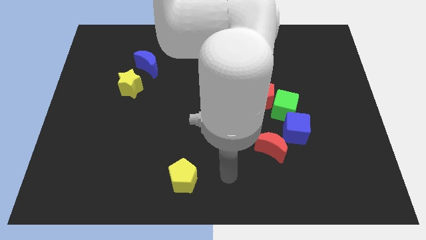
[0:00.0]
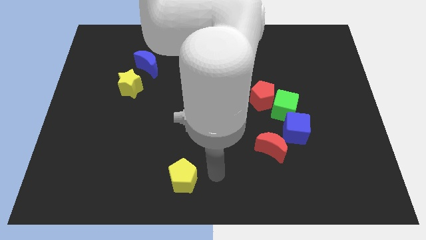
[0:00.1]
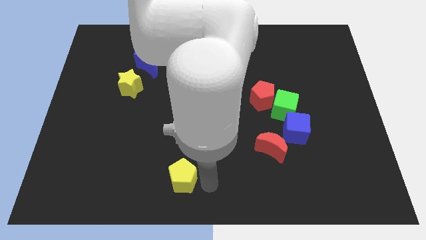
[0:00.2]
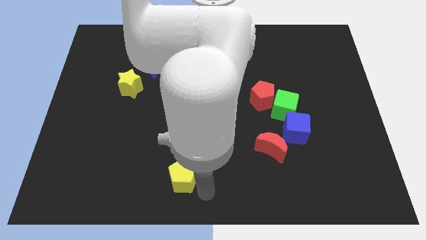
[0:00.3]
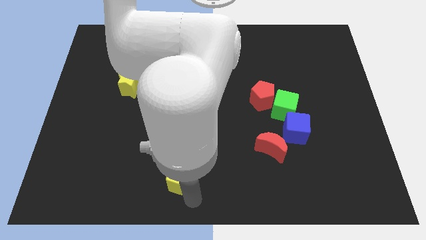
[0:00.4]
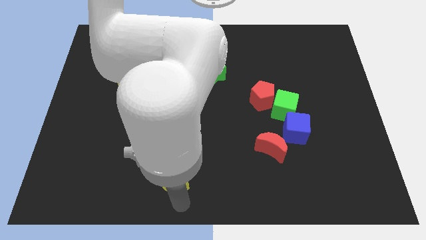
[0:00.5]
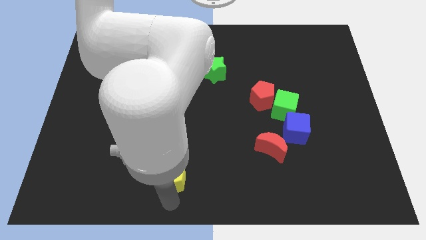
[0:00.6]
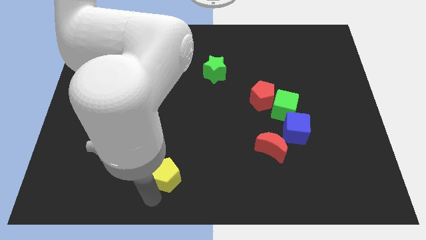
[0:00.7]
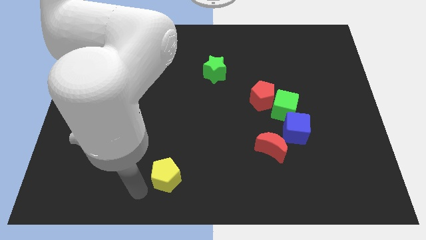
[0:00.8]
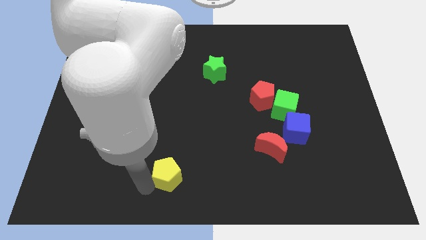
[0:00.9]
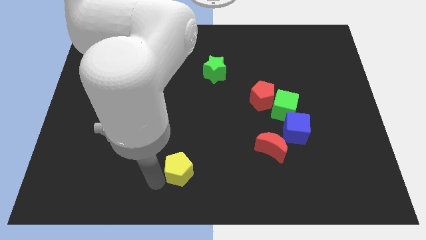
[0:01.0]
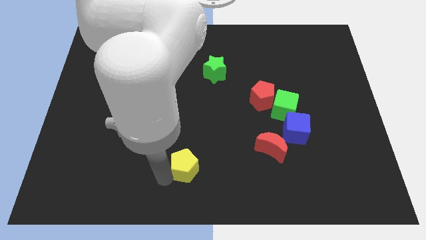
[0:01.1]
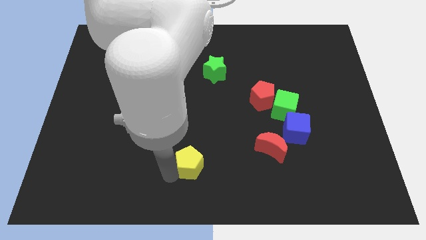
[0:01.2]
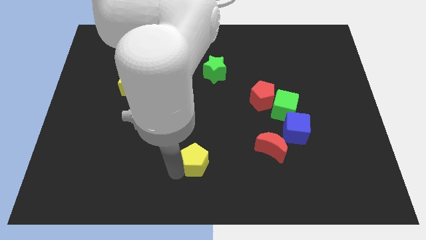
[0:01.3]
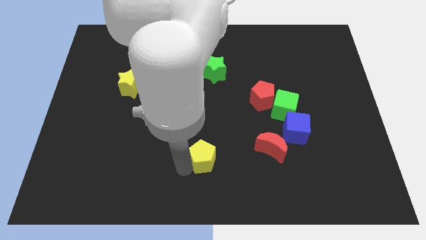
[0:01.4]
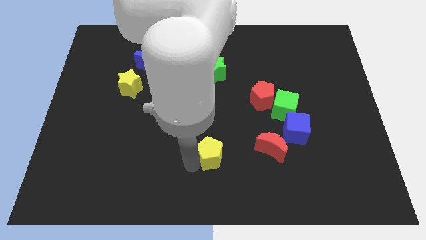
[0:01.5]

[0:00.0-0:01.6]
slightly push the yellow pentagon up and to the right diagonally

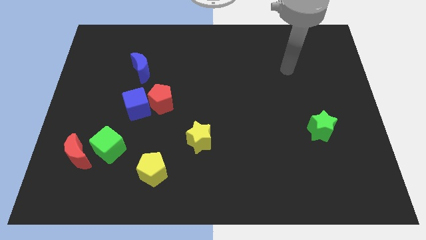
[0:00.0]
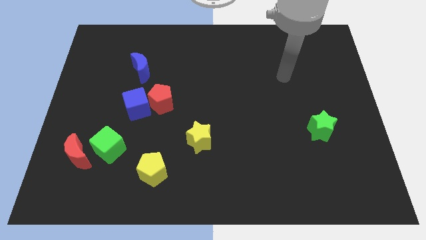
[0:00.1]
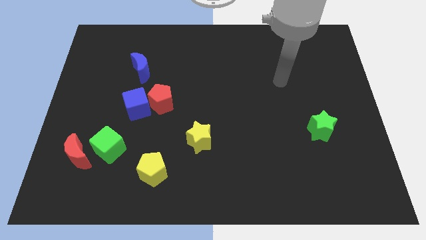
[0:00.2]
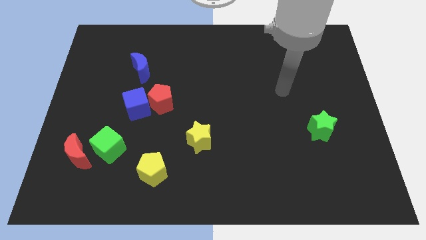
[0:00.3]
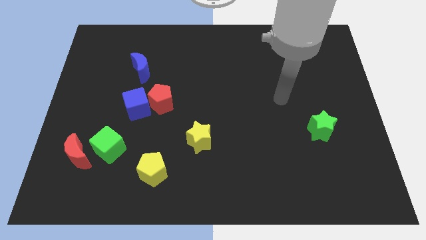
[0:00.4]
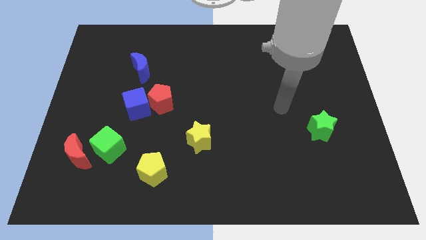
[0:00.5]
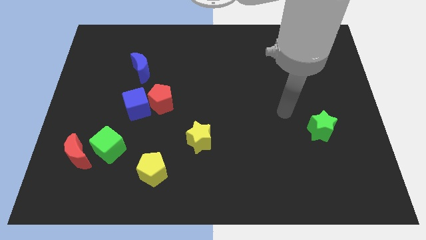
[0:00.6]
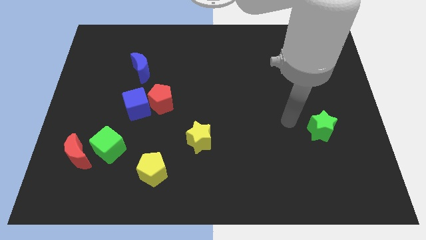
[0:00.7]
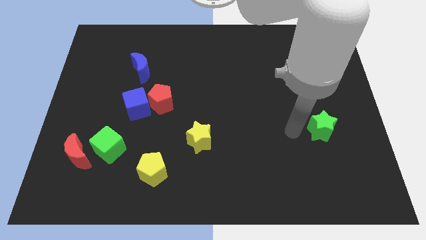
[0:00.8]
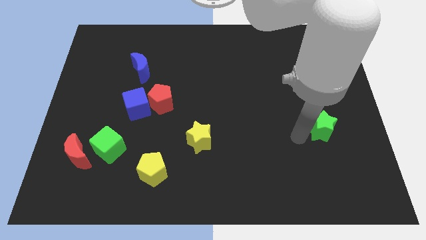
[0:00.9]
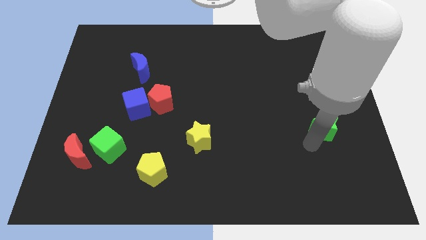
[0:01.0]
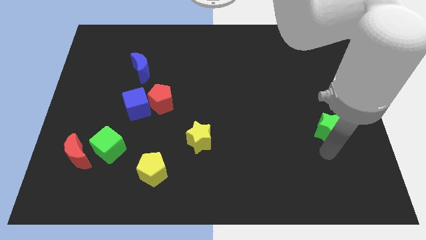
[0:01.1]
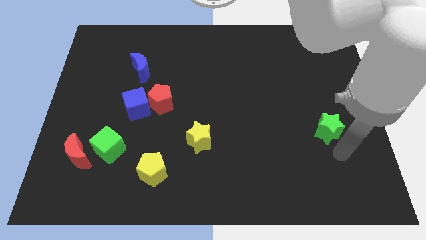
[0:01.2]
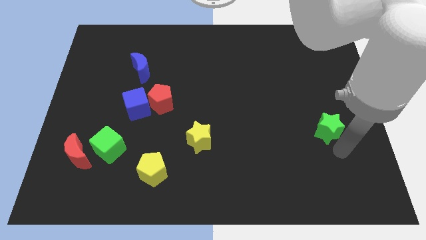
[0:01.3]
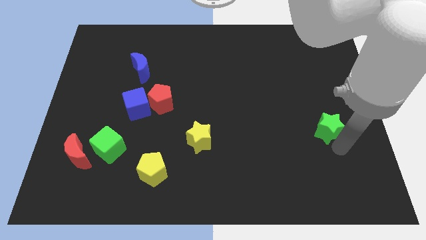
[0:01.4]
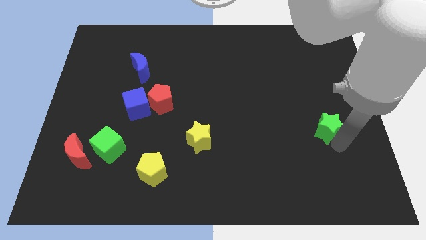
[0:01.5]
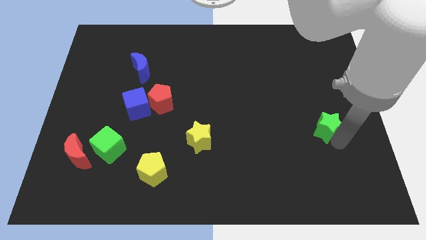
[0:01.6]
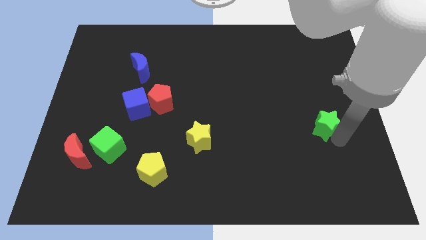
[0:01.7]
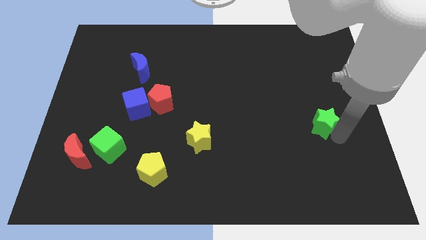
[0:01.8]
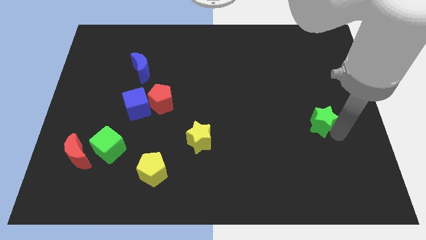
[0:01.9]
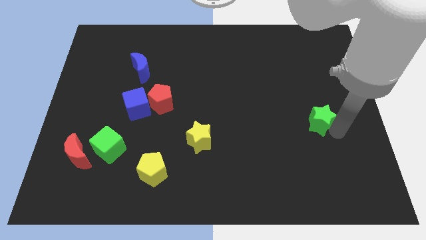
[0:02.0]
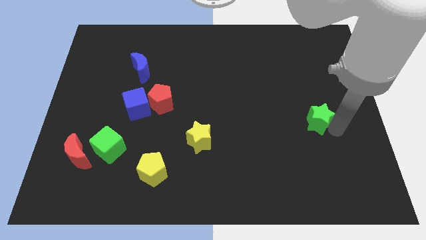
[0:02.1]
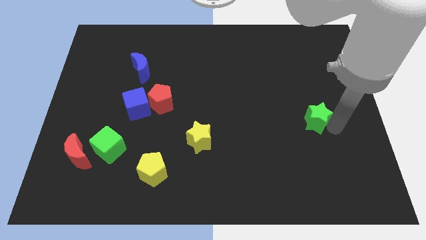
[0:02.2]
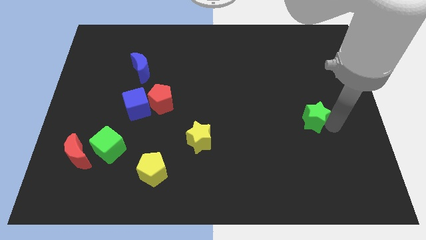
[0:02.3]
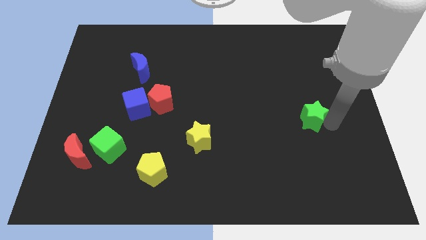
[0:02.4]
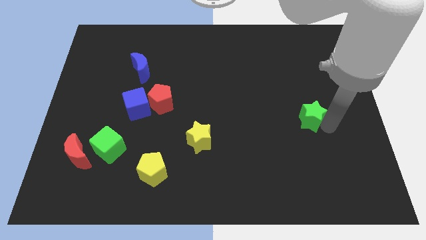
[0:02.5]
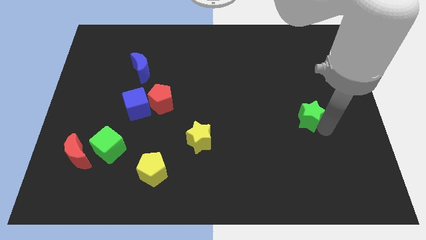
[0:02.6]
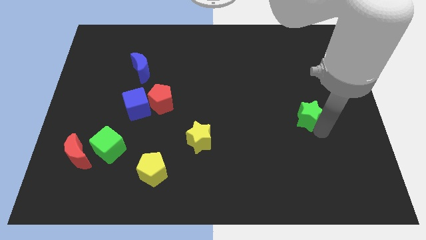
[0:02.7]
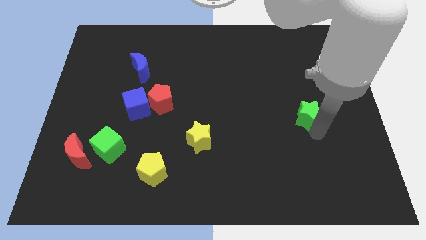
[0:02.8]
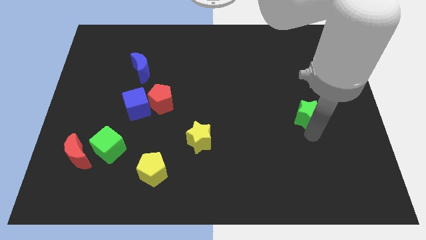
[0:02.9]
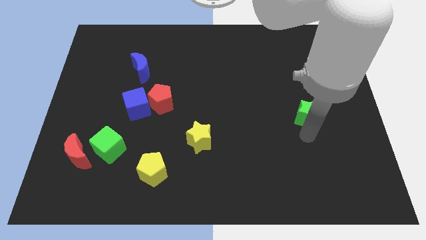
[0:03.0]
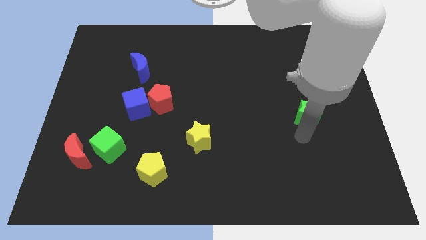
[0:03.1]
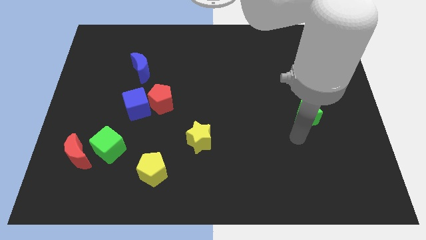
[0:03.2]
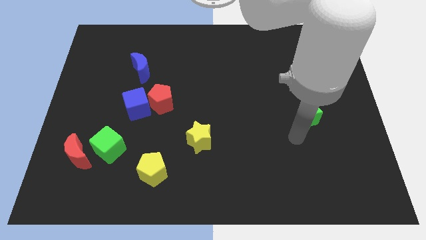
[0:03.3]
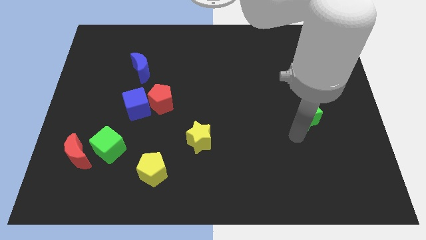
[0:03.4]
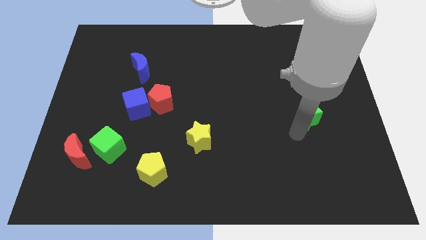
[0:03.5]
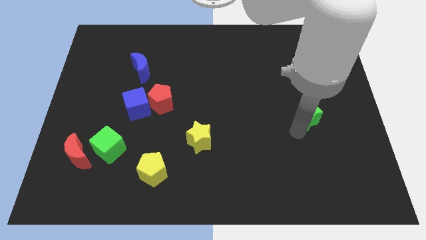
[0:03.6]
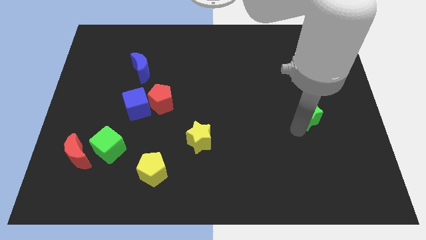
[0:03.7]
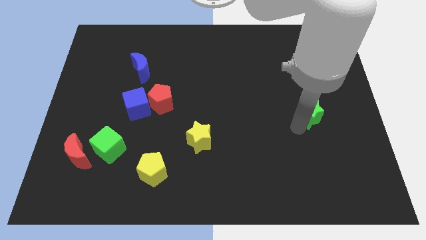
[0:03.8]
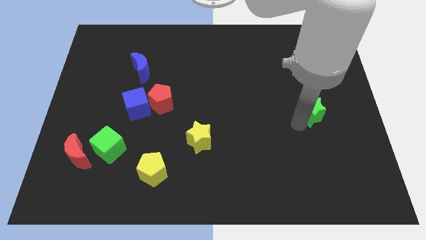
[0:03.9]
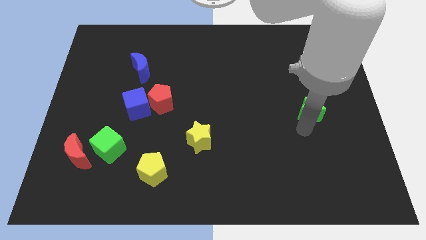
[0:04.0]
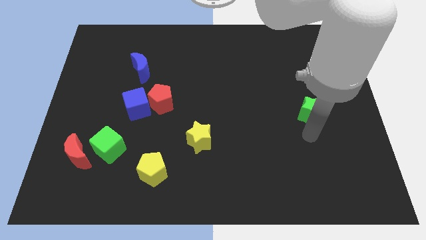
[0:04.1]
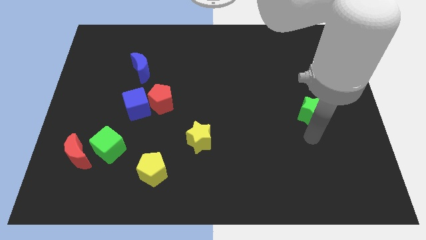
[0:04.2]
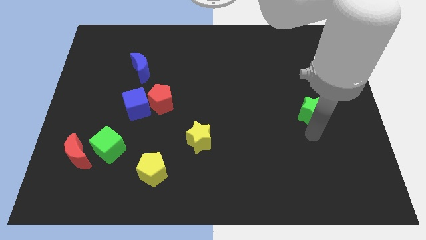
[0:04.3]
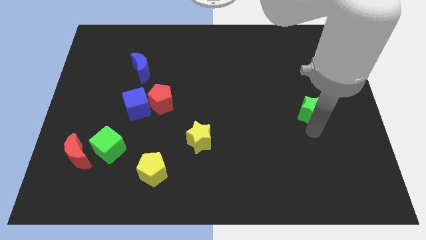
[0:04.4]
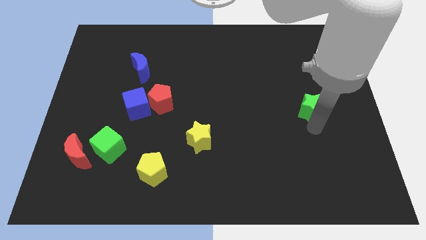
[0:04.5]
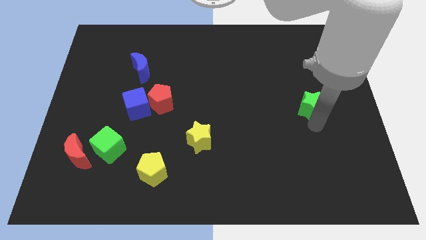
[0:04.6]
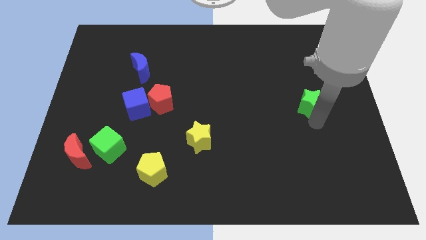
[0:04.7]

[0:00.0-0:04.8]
slightly move the green star up

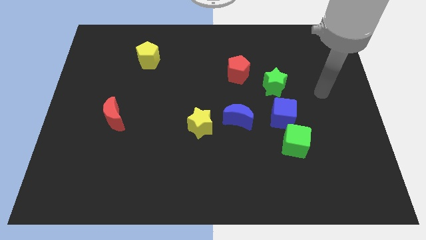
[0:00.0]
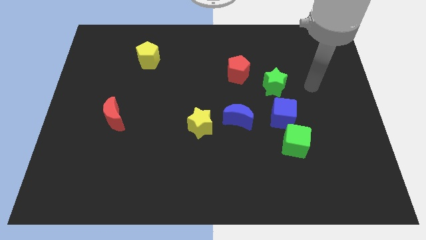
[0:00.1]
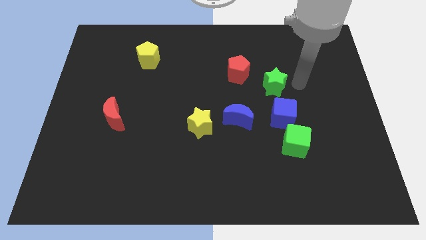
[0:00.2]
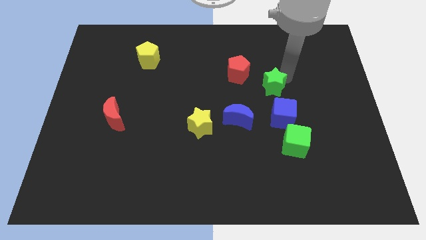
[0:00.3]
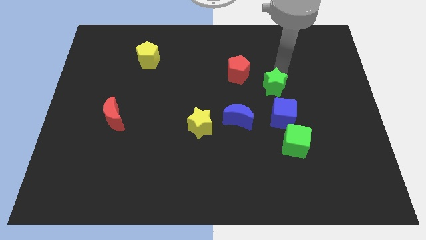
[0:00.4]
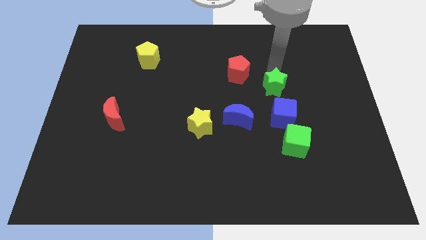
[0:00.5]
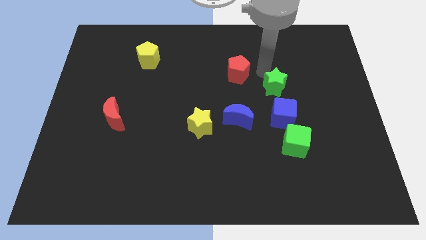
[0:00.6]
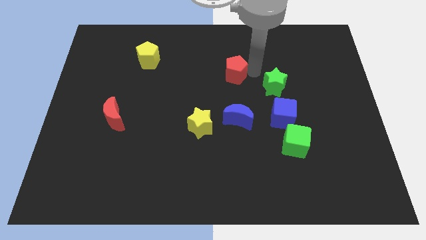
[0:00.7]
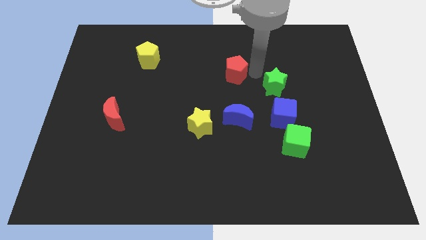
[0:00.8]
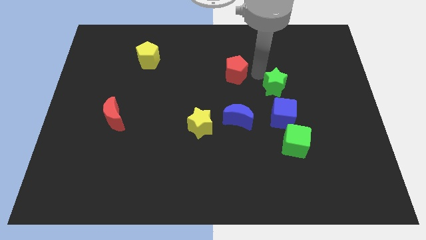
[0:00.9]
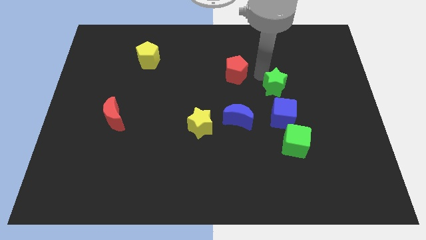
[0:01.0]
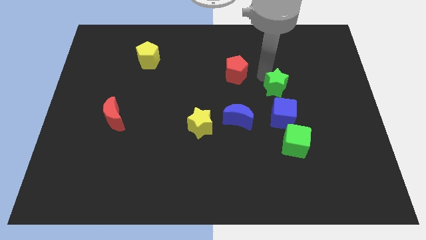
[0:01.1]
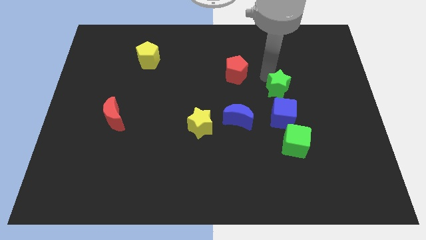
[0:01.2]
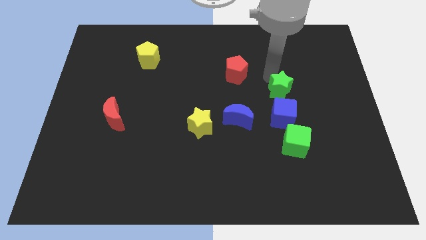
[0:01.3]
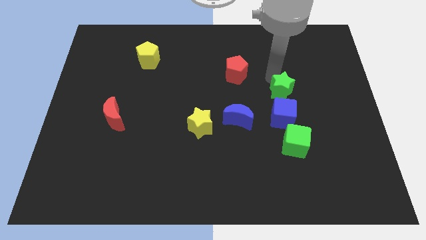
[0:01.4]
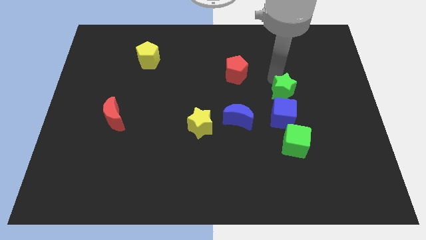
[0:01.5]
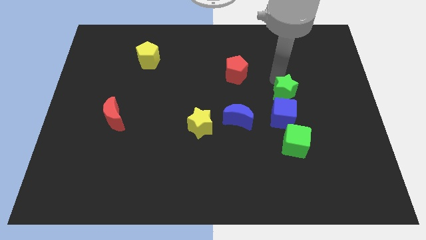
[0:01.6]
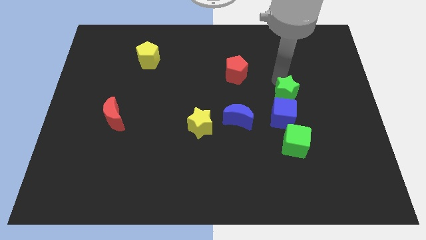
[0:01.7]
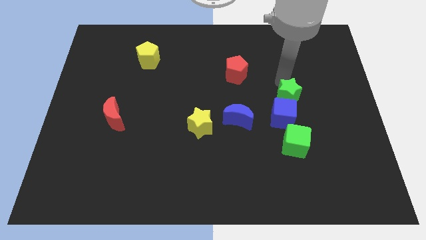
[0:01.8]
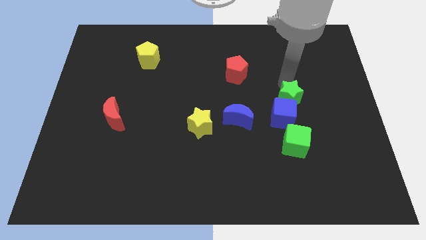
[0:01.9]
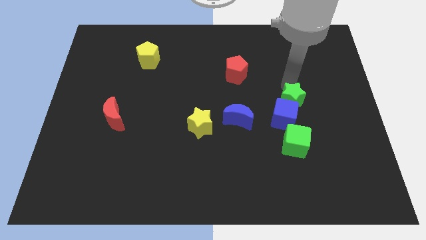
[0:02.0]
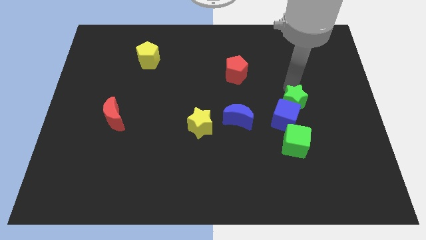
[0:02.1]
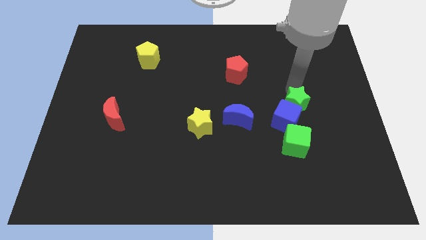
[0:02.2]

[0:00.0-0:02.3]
slide the green star a bit downwards and to the right
